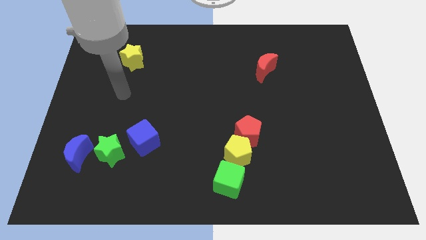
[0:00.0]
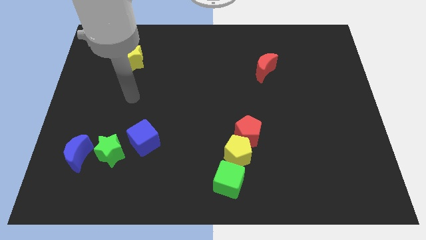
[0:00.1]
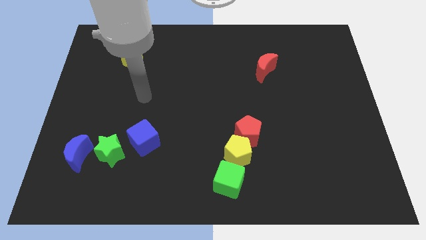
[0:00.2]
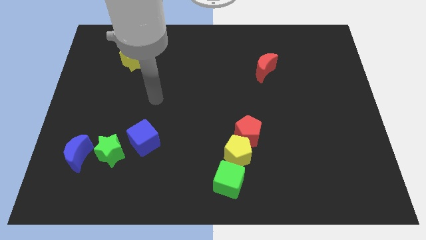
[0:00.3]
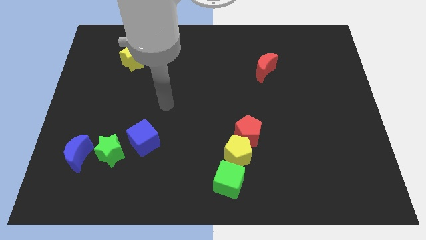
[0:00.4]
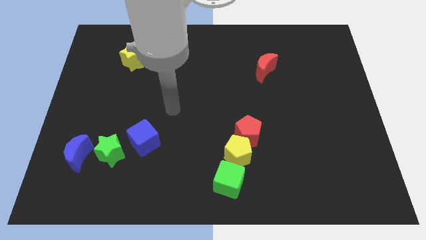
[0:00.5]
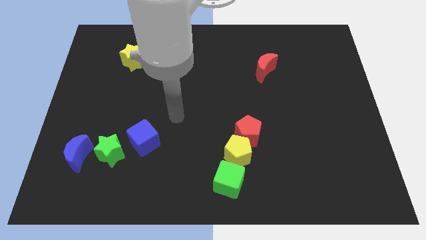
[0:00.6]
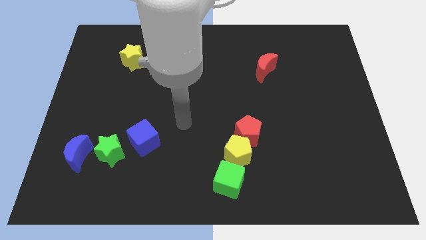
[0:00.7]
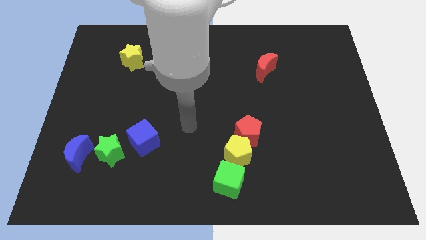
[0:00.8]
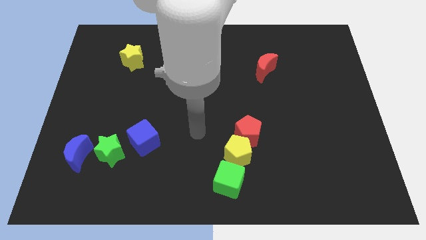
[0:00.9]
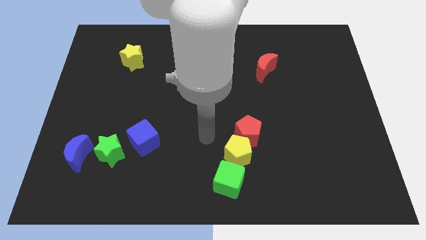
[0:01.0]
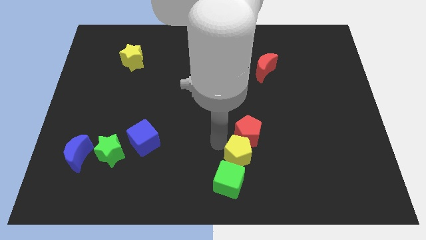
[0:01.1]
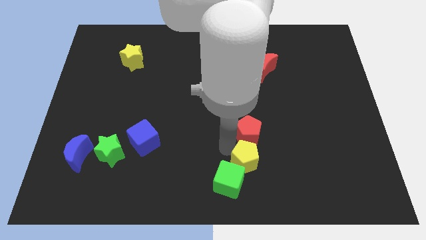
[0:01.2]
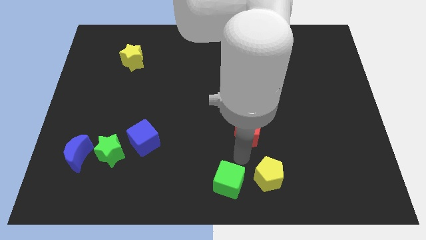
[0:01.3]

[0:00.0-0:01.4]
move the red pentagon away from the yellow pentagon

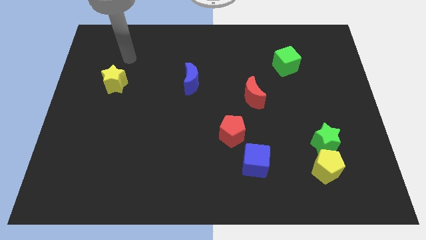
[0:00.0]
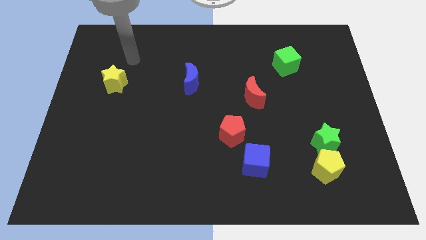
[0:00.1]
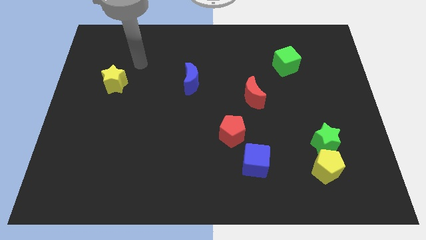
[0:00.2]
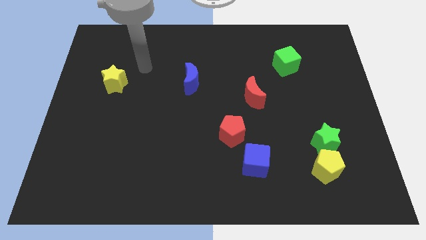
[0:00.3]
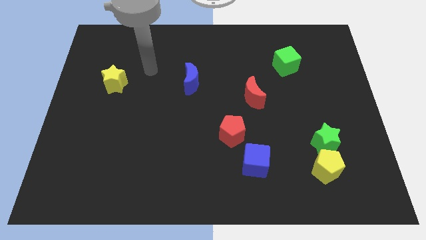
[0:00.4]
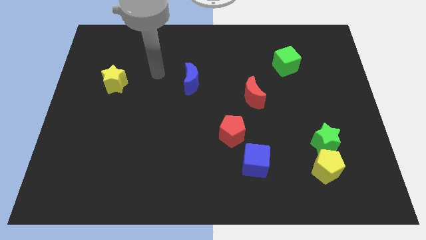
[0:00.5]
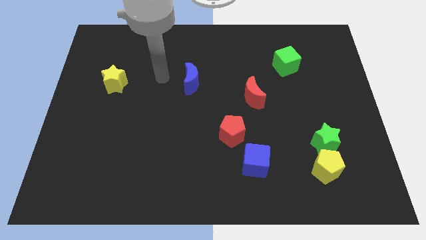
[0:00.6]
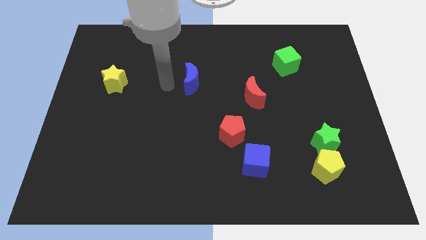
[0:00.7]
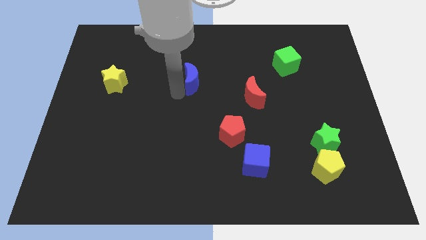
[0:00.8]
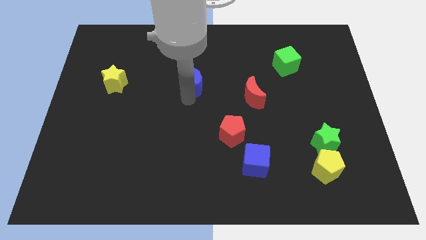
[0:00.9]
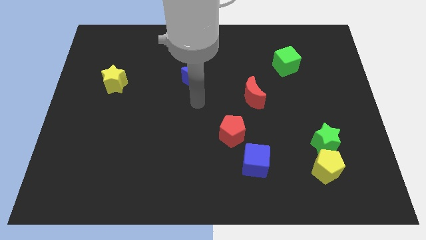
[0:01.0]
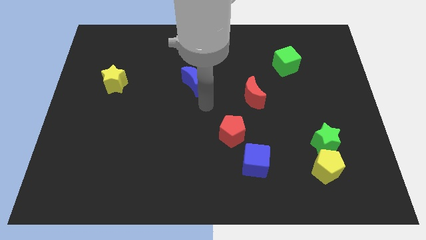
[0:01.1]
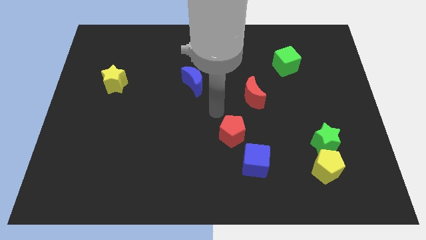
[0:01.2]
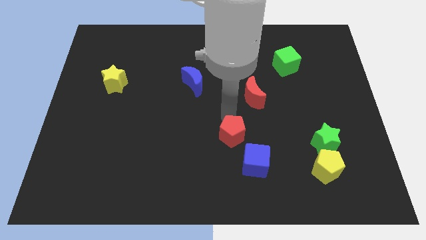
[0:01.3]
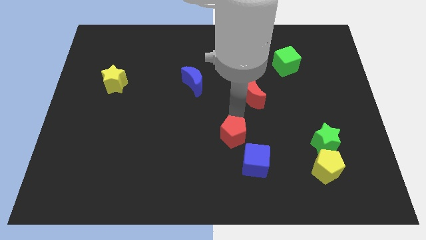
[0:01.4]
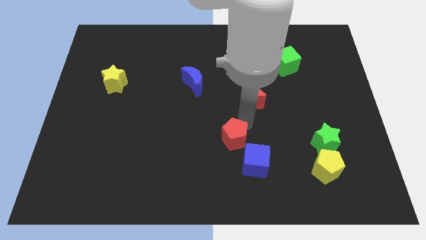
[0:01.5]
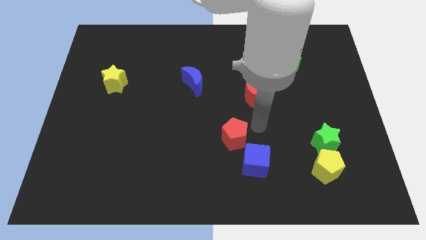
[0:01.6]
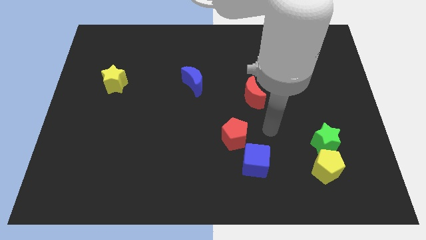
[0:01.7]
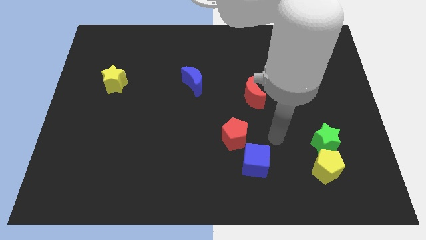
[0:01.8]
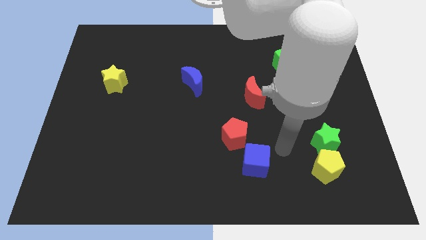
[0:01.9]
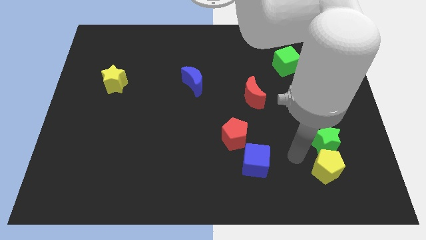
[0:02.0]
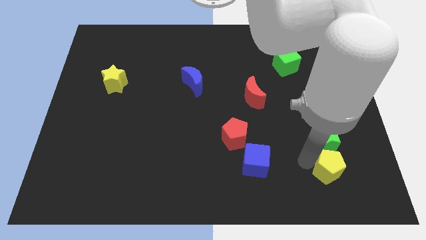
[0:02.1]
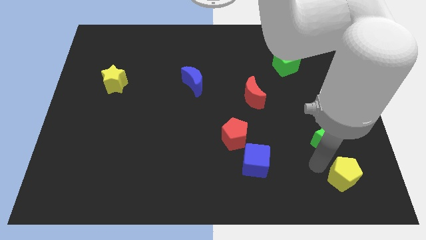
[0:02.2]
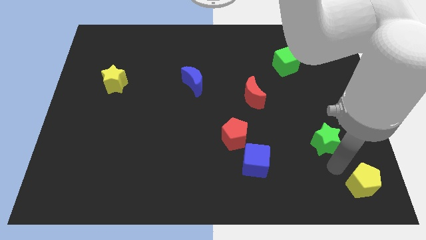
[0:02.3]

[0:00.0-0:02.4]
separate the green star from the yellow pentagon

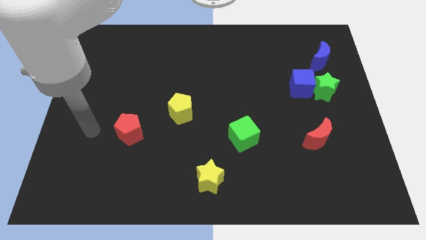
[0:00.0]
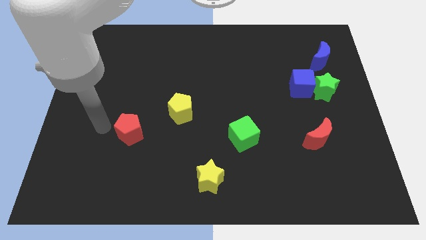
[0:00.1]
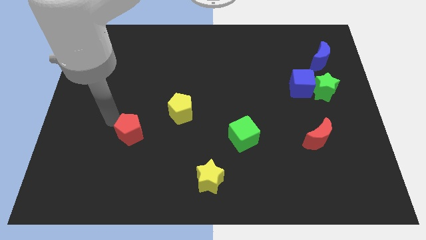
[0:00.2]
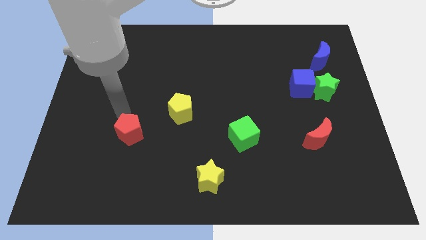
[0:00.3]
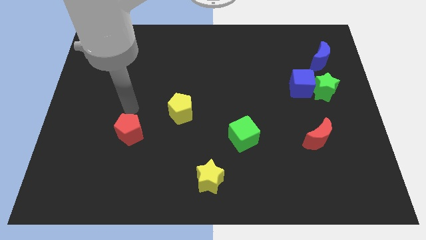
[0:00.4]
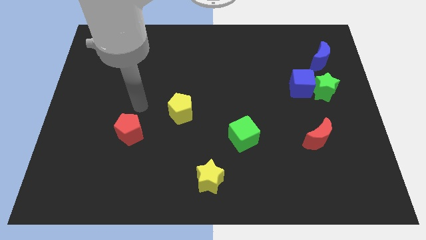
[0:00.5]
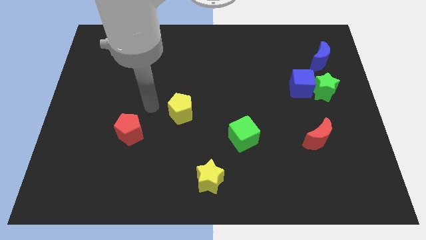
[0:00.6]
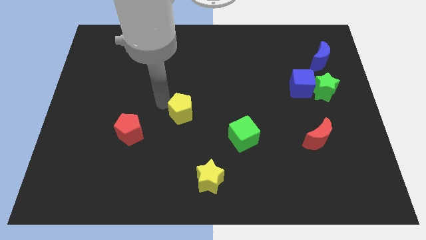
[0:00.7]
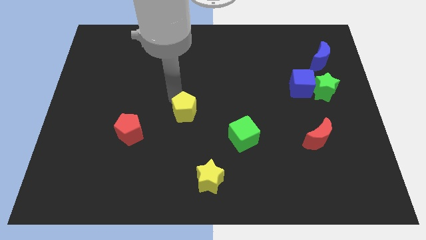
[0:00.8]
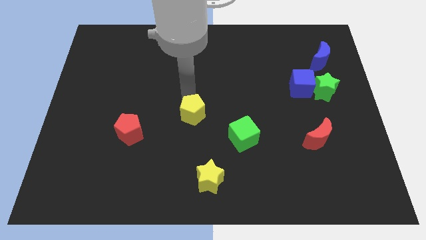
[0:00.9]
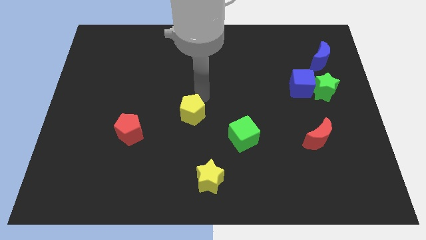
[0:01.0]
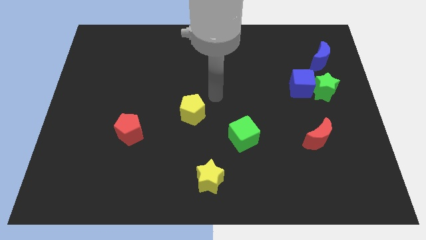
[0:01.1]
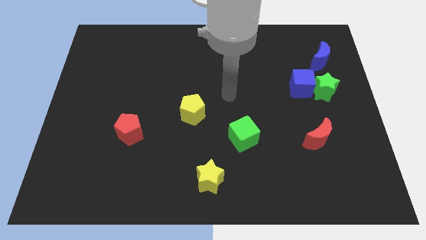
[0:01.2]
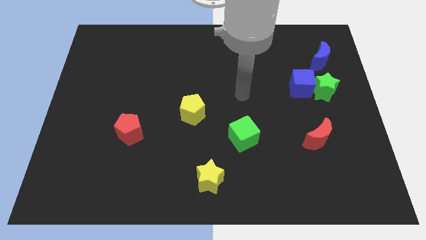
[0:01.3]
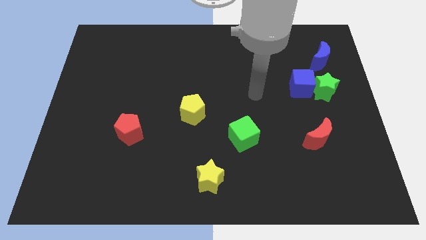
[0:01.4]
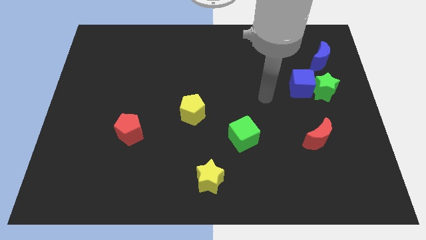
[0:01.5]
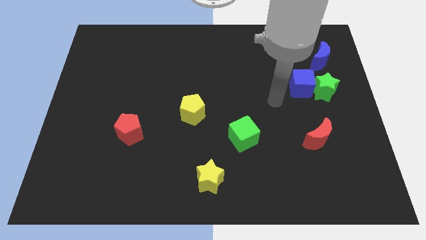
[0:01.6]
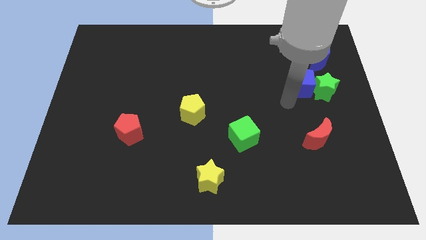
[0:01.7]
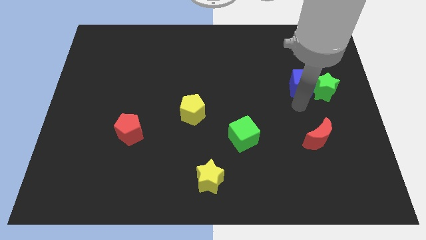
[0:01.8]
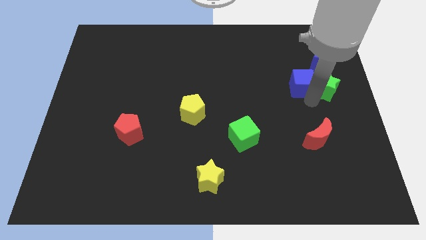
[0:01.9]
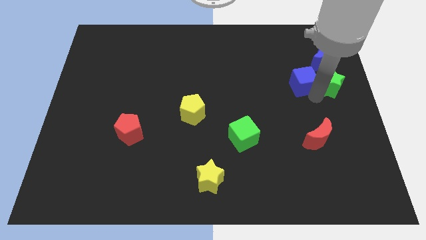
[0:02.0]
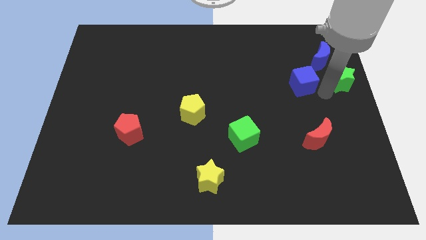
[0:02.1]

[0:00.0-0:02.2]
move the blue cube away from the green star

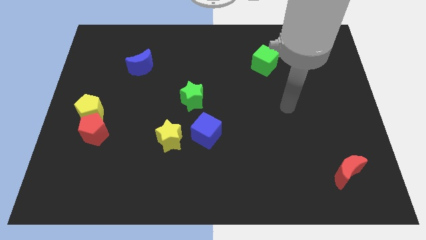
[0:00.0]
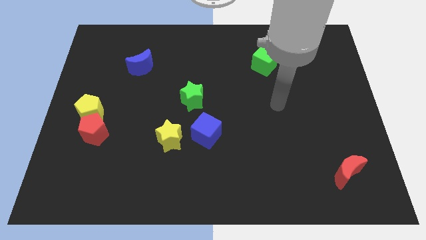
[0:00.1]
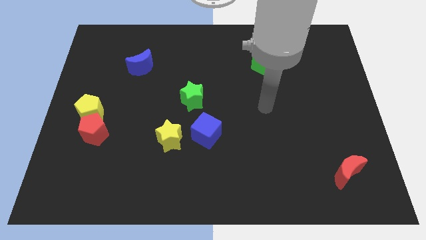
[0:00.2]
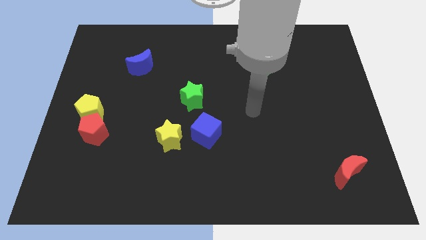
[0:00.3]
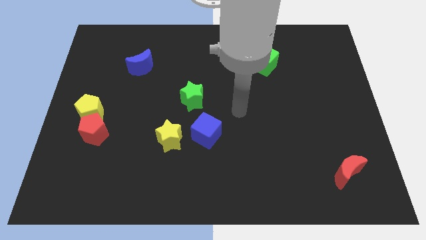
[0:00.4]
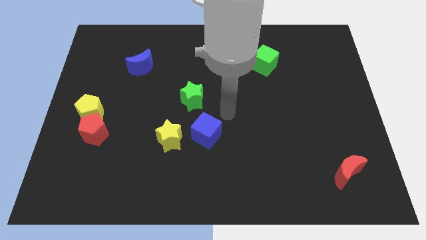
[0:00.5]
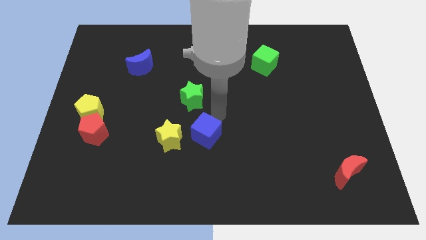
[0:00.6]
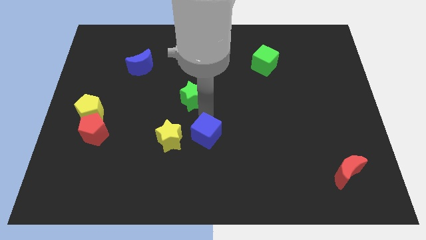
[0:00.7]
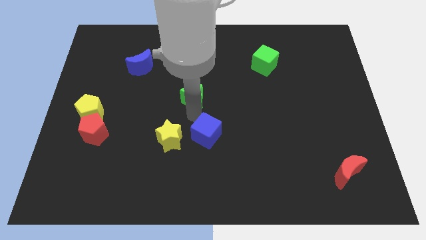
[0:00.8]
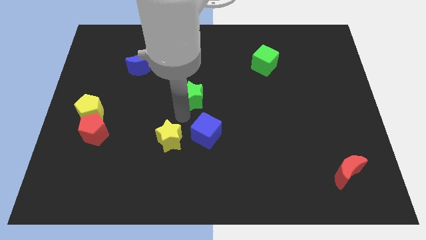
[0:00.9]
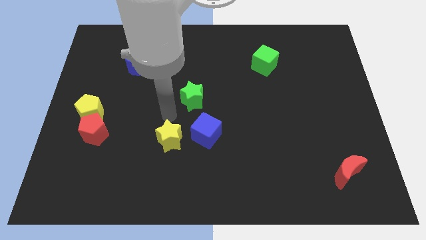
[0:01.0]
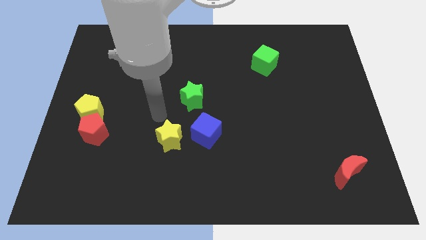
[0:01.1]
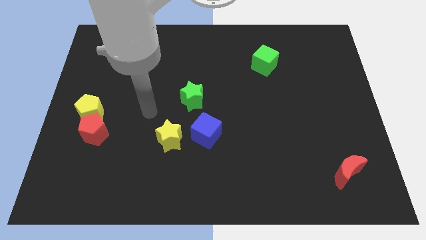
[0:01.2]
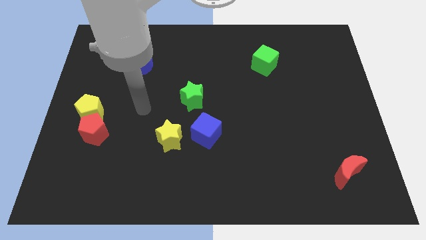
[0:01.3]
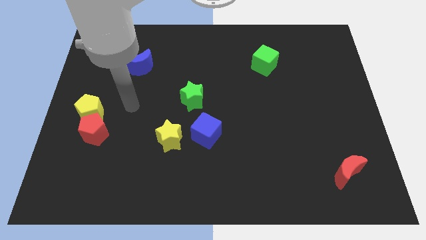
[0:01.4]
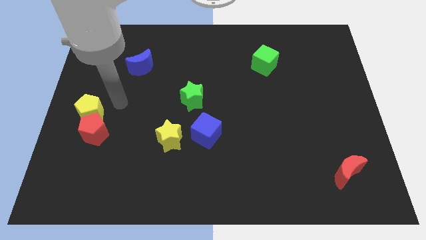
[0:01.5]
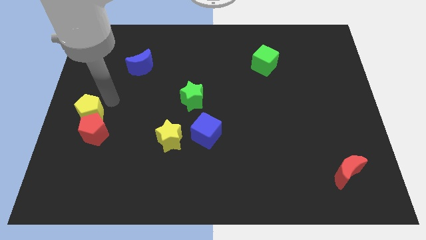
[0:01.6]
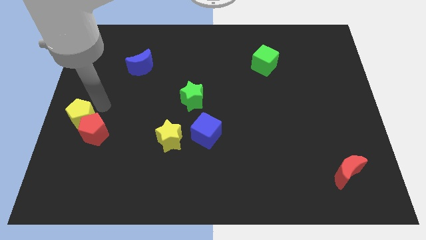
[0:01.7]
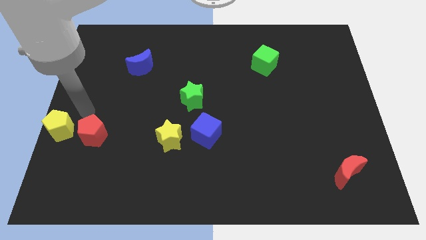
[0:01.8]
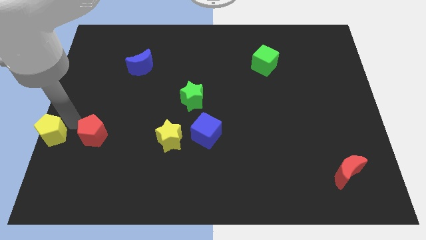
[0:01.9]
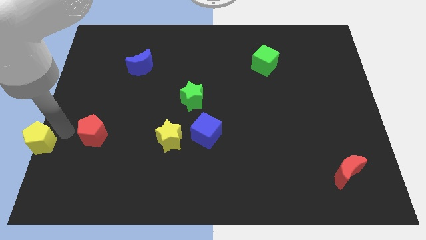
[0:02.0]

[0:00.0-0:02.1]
separate the red pentagon from the yellow pentagon

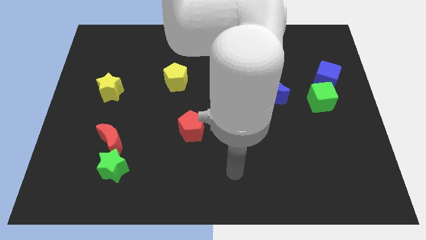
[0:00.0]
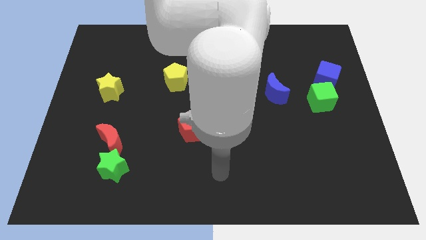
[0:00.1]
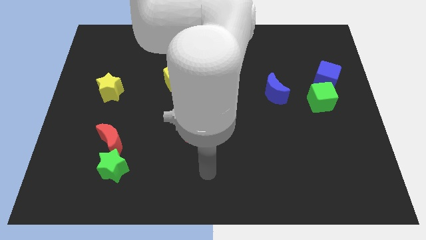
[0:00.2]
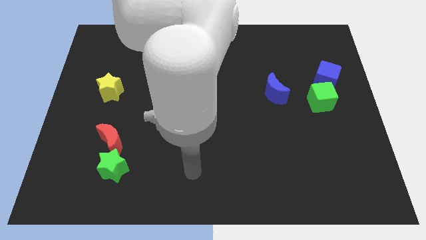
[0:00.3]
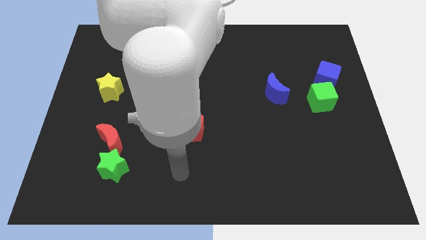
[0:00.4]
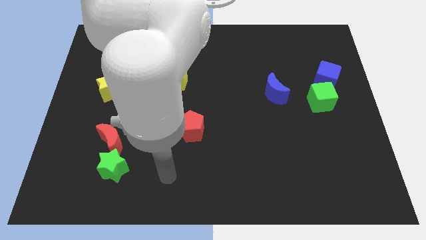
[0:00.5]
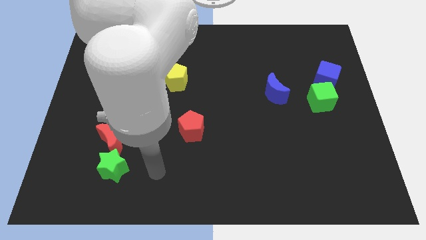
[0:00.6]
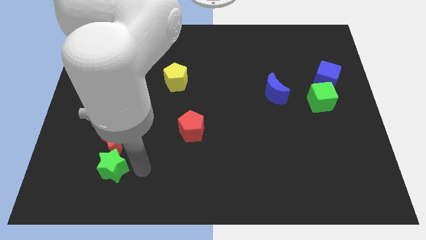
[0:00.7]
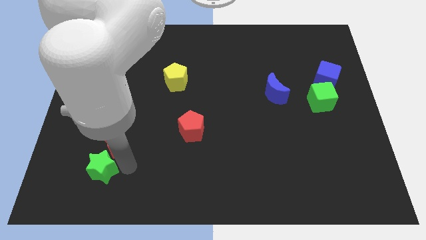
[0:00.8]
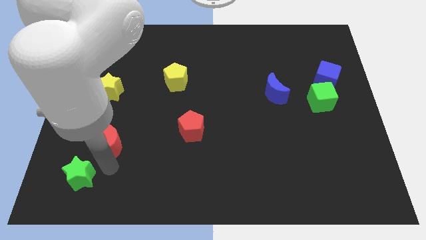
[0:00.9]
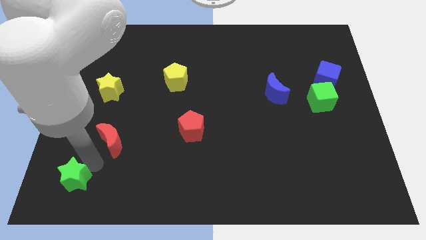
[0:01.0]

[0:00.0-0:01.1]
separate the red moon from the green star
